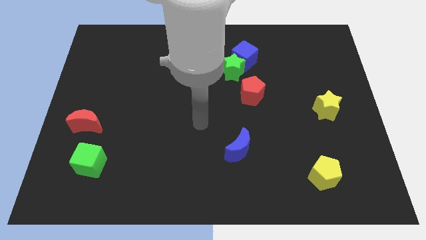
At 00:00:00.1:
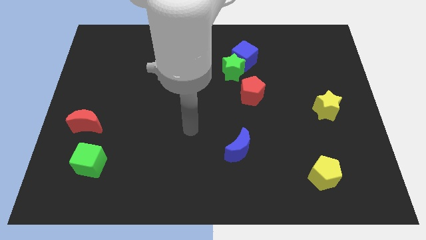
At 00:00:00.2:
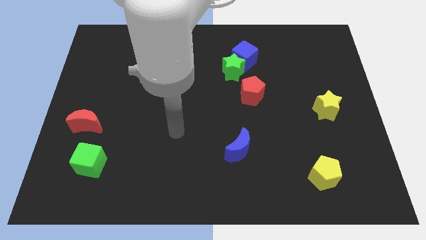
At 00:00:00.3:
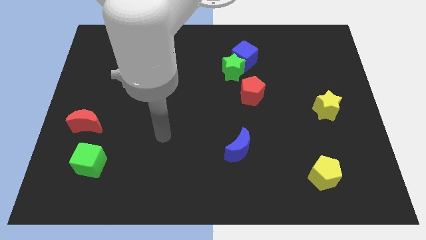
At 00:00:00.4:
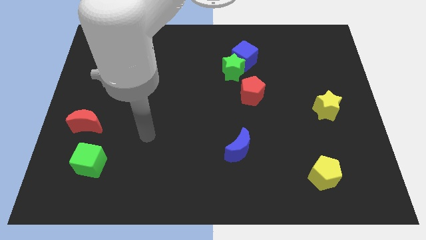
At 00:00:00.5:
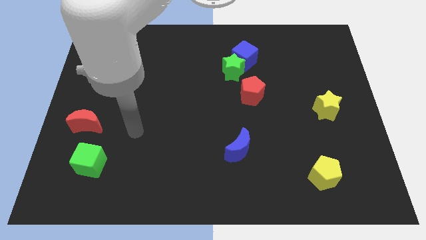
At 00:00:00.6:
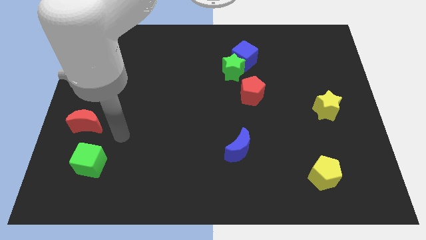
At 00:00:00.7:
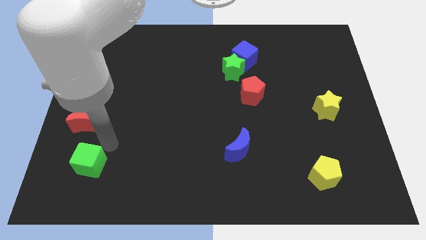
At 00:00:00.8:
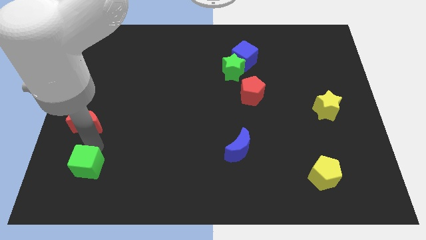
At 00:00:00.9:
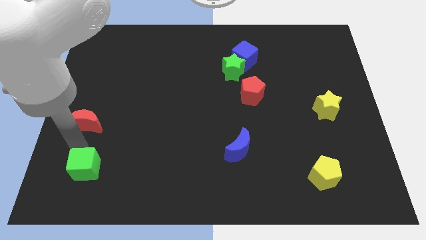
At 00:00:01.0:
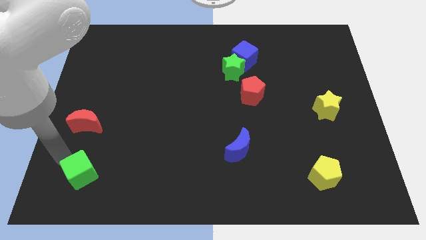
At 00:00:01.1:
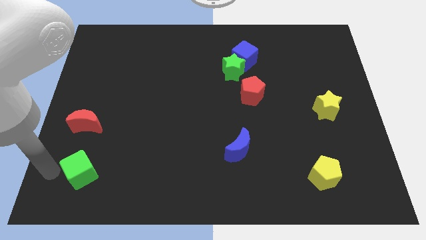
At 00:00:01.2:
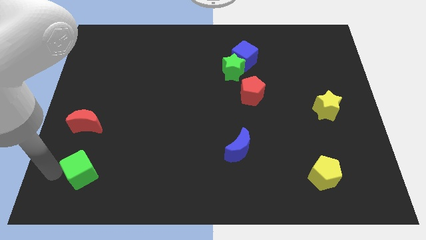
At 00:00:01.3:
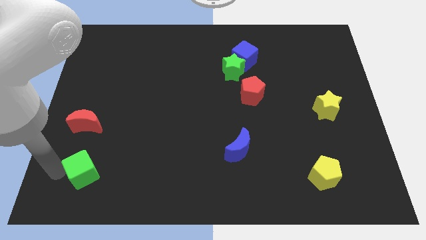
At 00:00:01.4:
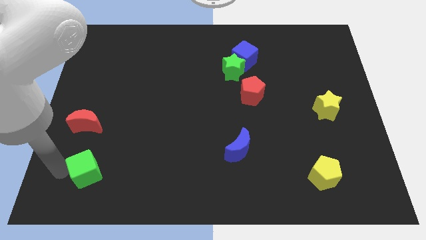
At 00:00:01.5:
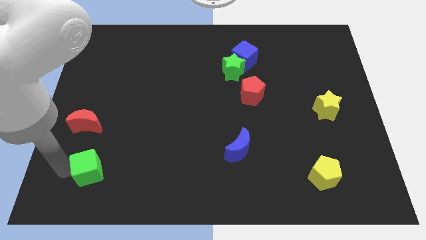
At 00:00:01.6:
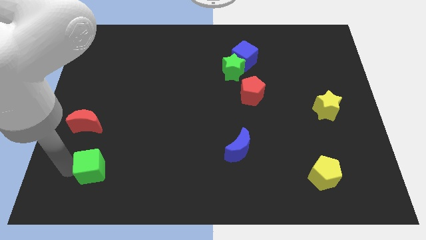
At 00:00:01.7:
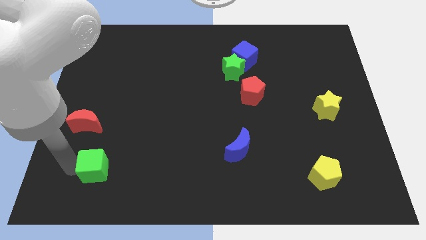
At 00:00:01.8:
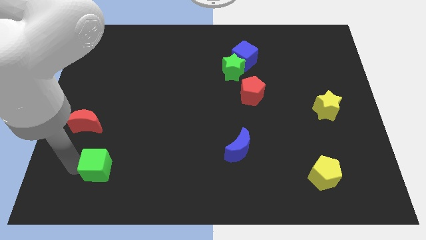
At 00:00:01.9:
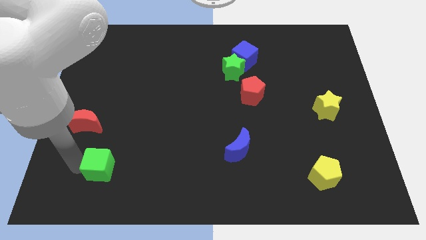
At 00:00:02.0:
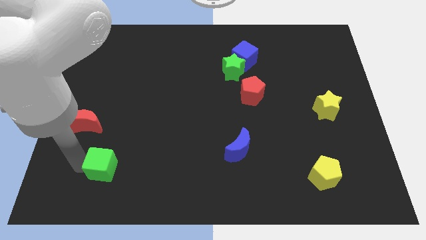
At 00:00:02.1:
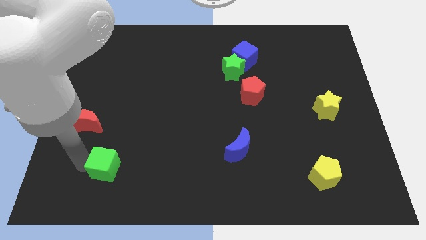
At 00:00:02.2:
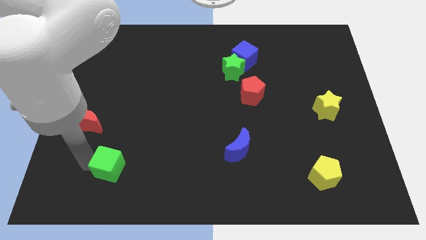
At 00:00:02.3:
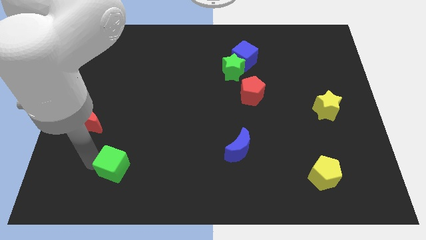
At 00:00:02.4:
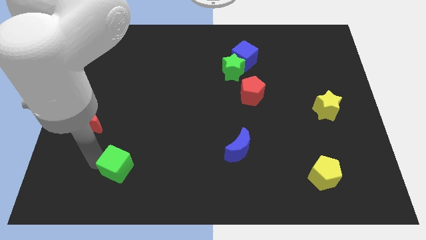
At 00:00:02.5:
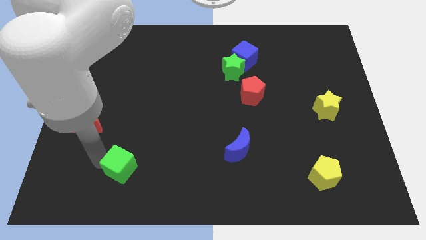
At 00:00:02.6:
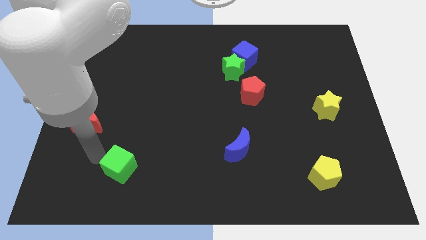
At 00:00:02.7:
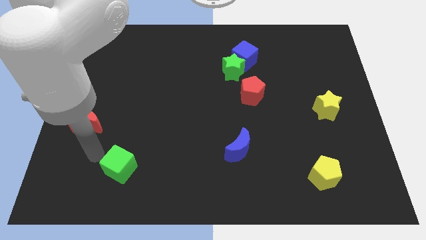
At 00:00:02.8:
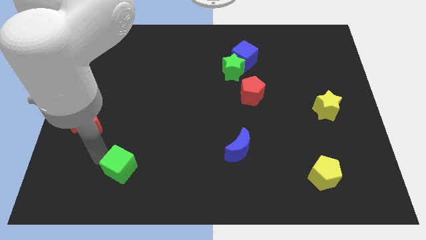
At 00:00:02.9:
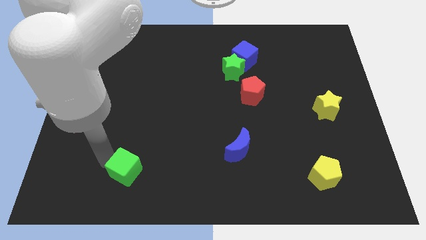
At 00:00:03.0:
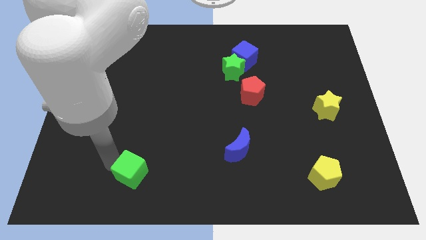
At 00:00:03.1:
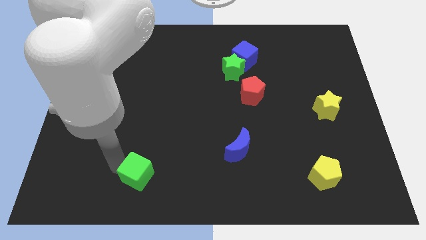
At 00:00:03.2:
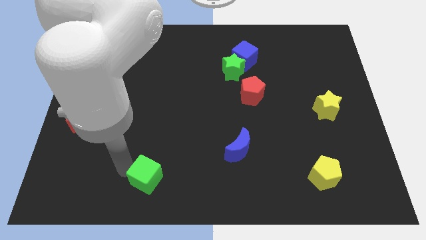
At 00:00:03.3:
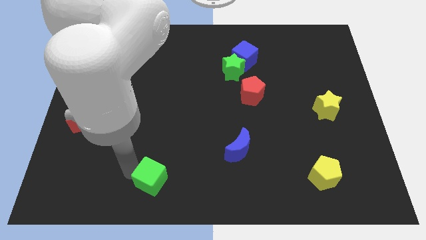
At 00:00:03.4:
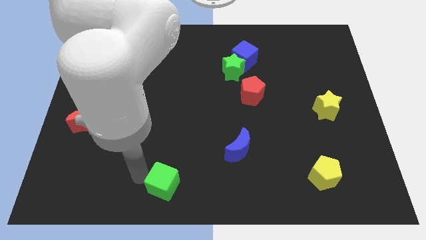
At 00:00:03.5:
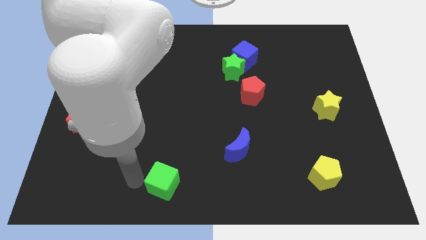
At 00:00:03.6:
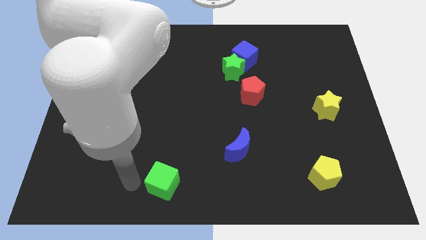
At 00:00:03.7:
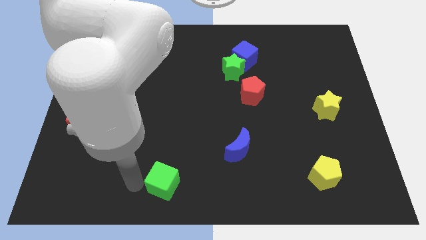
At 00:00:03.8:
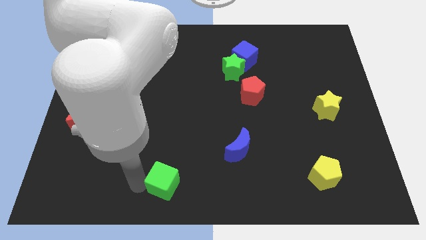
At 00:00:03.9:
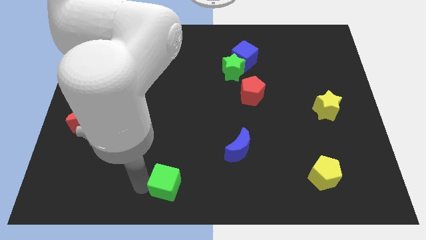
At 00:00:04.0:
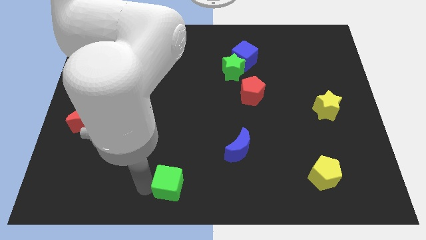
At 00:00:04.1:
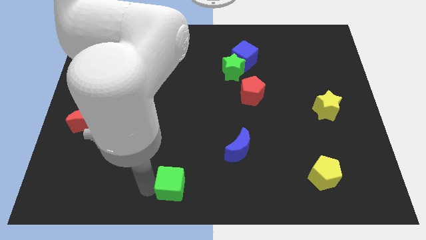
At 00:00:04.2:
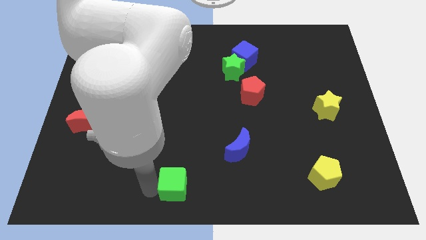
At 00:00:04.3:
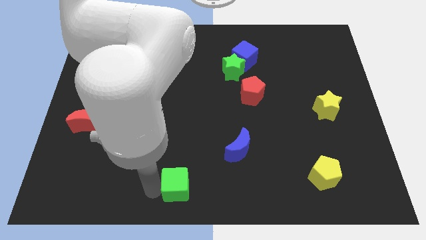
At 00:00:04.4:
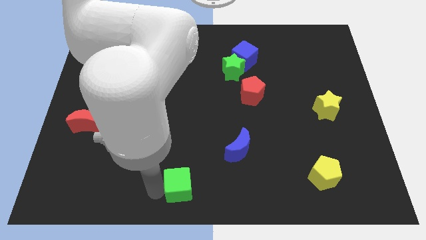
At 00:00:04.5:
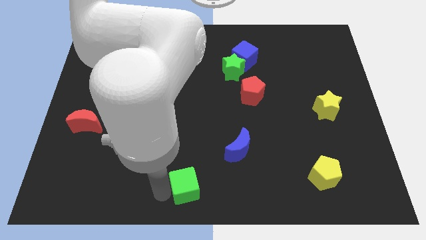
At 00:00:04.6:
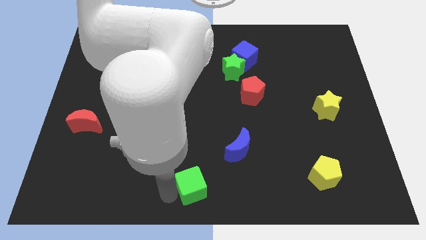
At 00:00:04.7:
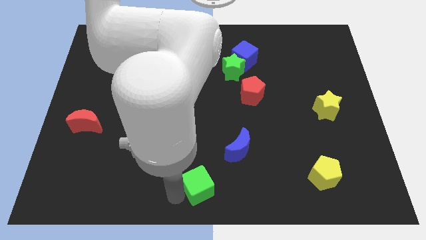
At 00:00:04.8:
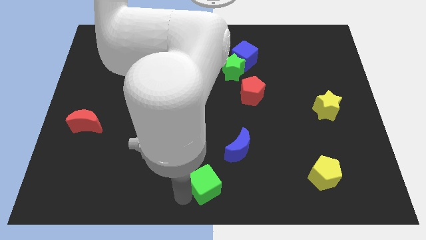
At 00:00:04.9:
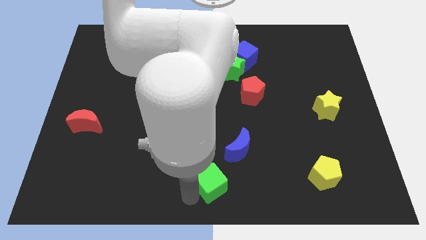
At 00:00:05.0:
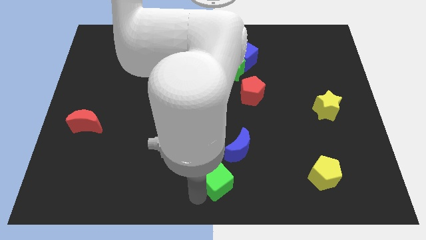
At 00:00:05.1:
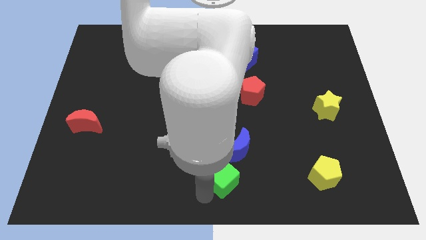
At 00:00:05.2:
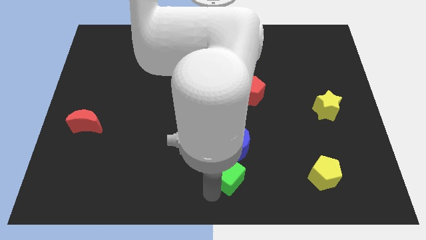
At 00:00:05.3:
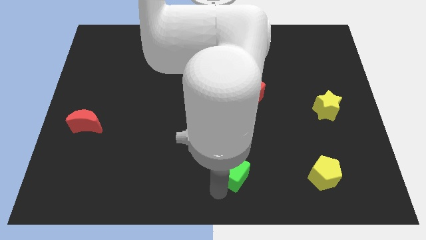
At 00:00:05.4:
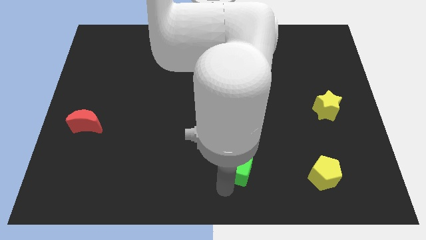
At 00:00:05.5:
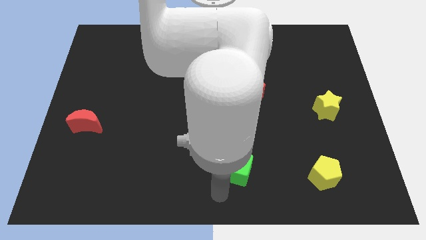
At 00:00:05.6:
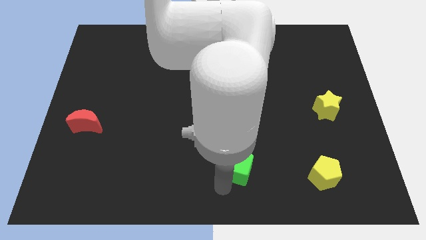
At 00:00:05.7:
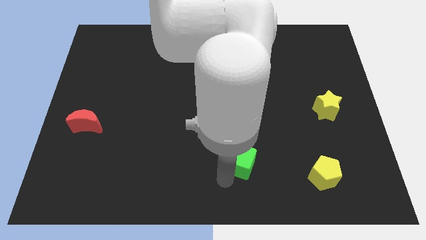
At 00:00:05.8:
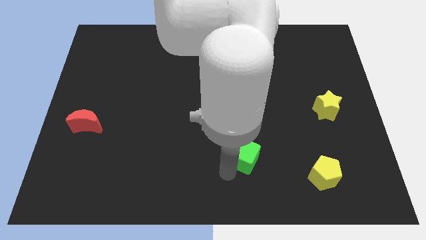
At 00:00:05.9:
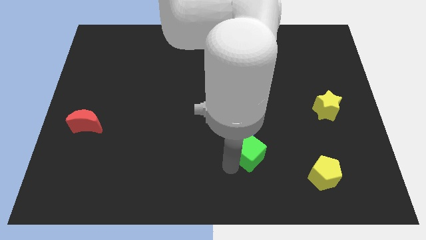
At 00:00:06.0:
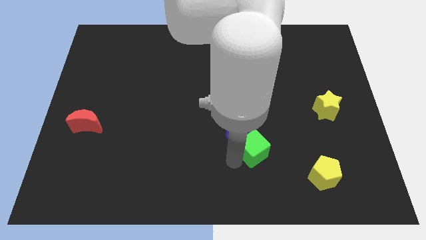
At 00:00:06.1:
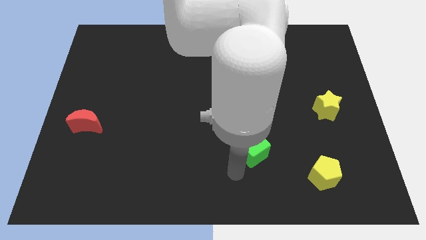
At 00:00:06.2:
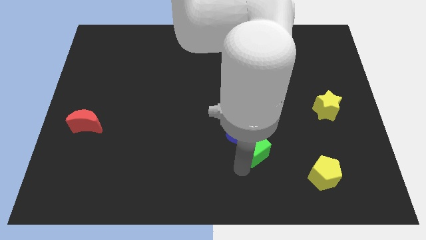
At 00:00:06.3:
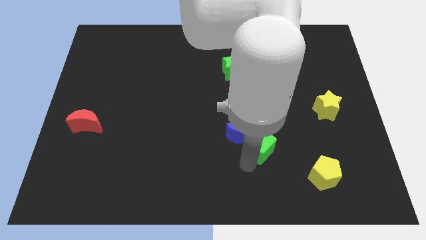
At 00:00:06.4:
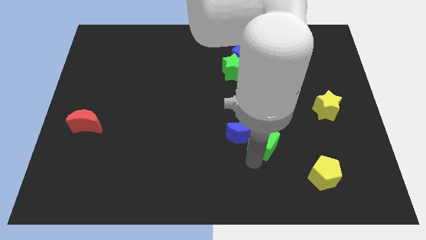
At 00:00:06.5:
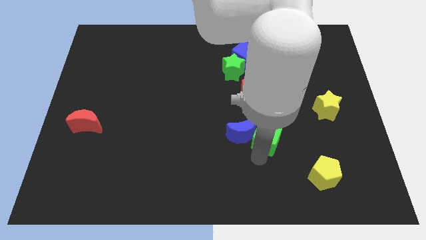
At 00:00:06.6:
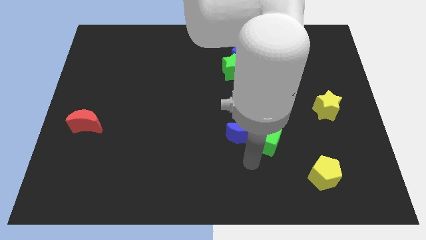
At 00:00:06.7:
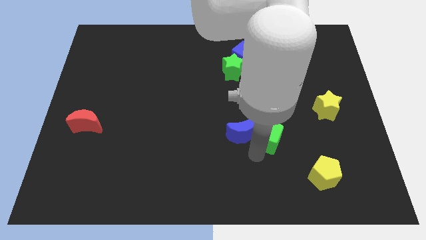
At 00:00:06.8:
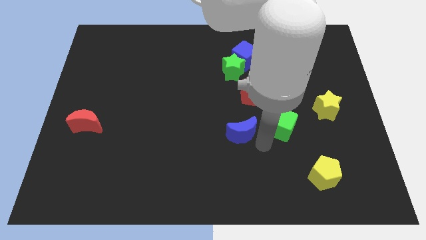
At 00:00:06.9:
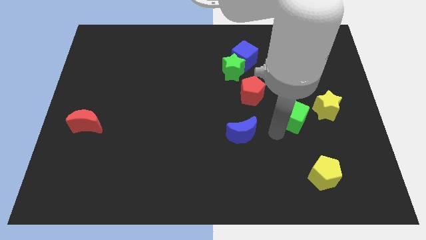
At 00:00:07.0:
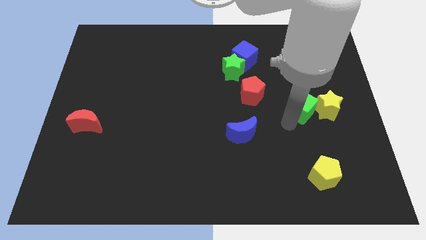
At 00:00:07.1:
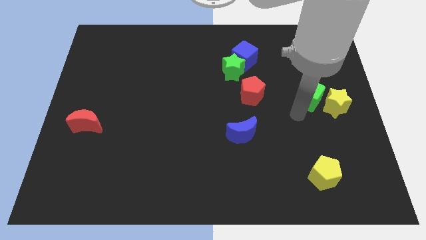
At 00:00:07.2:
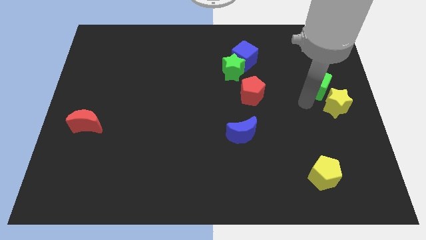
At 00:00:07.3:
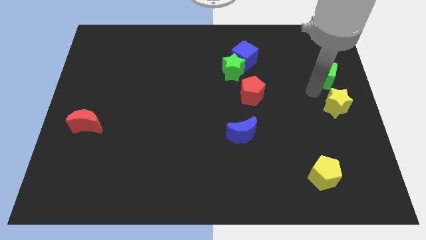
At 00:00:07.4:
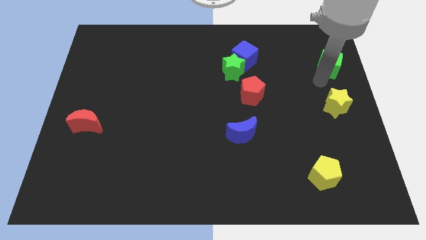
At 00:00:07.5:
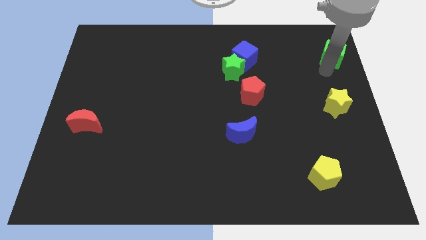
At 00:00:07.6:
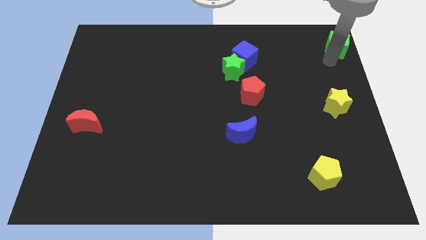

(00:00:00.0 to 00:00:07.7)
push the green cube to the upper right corner
